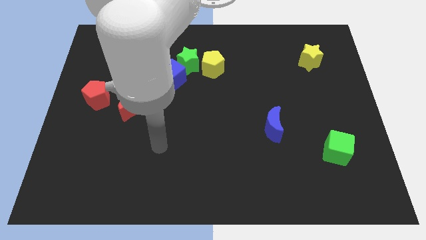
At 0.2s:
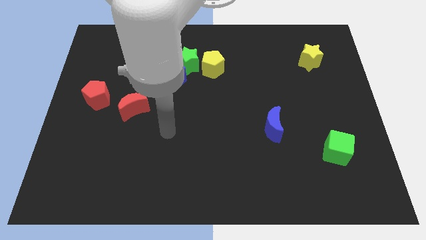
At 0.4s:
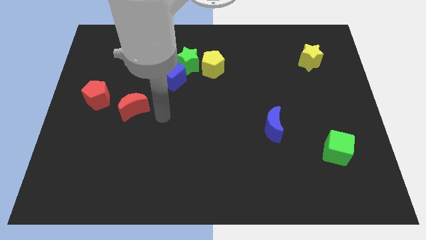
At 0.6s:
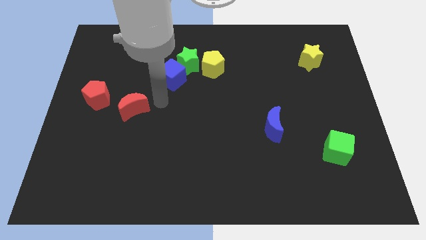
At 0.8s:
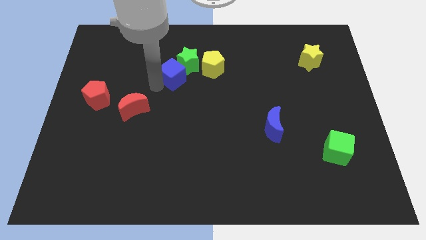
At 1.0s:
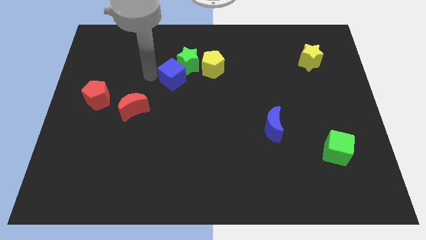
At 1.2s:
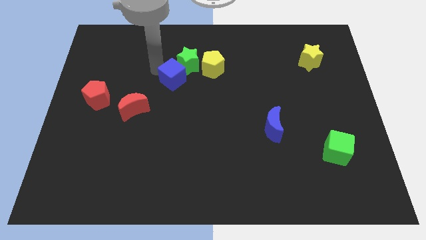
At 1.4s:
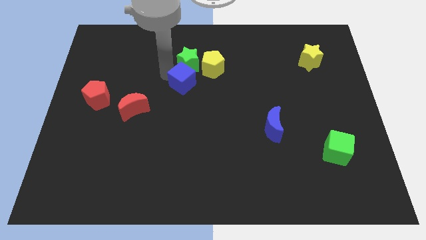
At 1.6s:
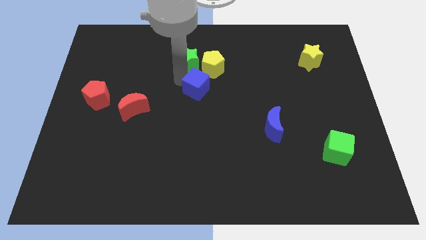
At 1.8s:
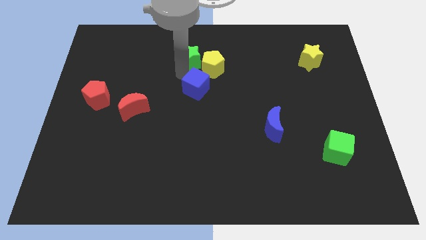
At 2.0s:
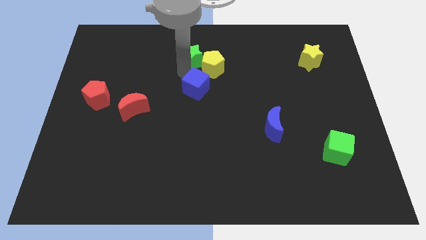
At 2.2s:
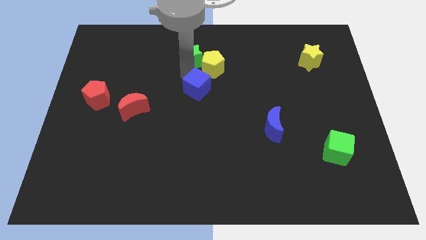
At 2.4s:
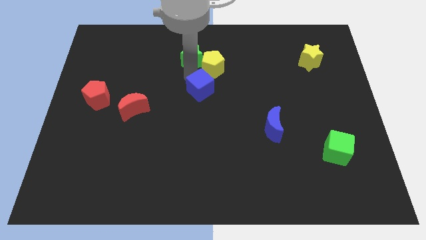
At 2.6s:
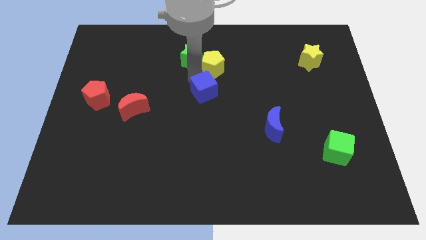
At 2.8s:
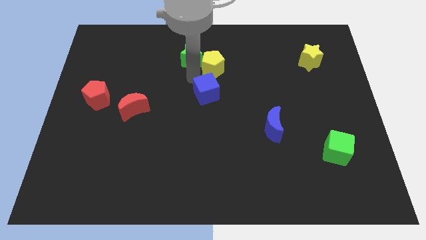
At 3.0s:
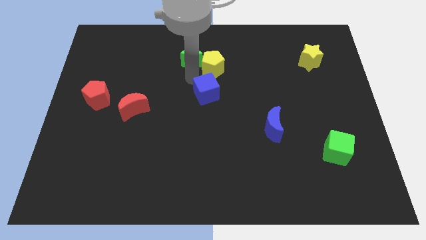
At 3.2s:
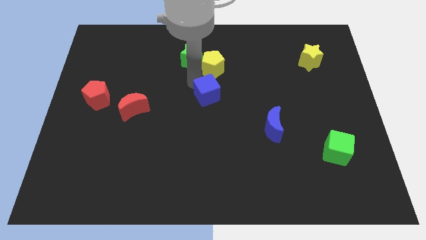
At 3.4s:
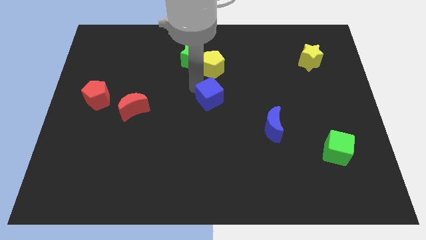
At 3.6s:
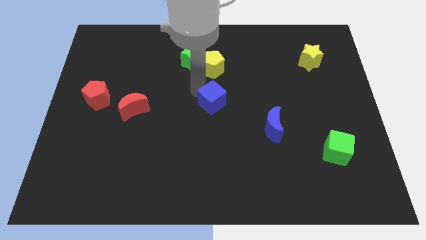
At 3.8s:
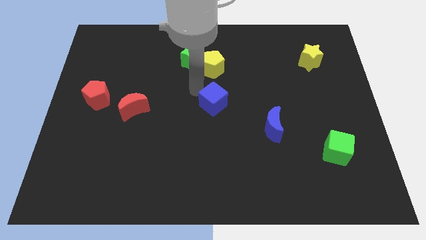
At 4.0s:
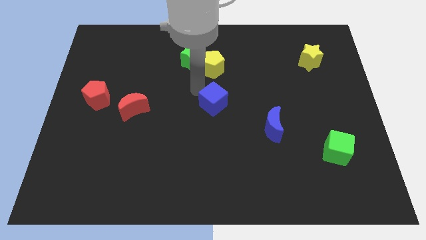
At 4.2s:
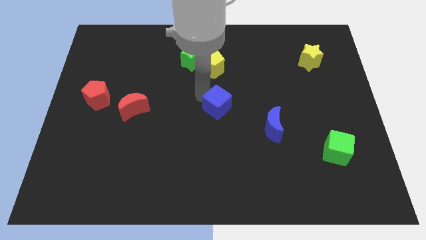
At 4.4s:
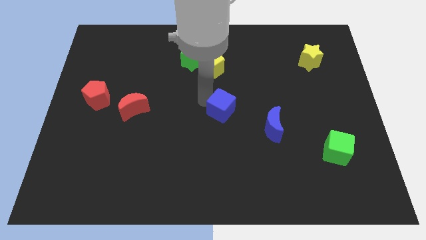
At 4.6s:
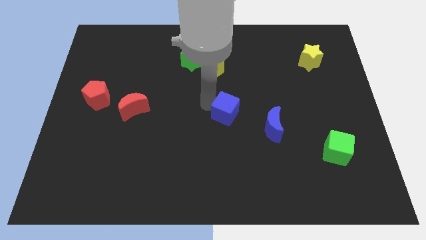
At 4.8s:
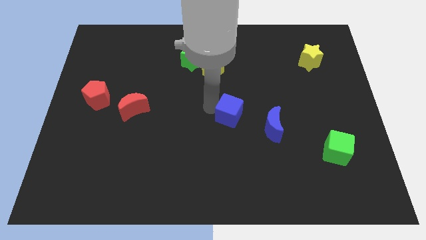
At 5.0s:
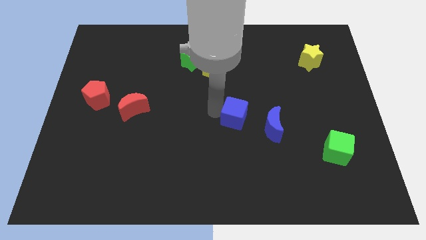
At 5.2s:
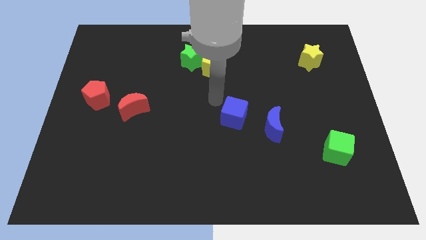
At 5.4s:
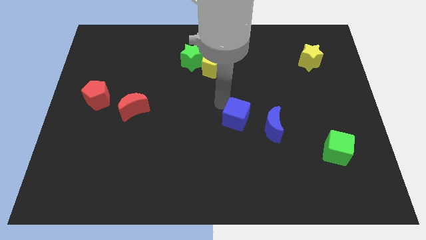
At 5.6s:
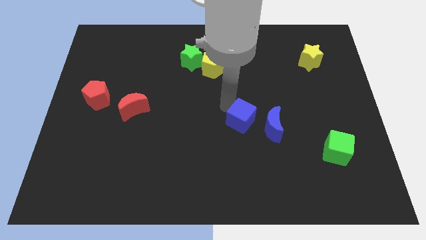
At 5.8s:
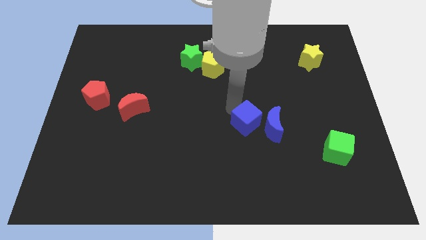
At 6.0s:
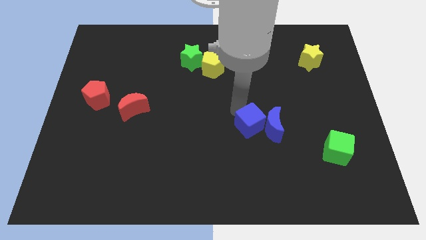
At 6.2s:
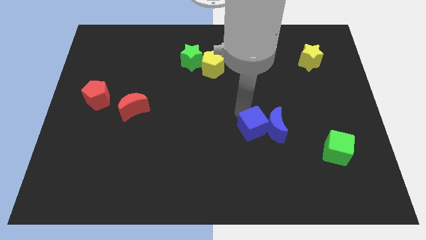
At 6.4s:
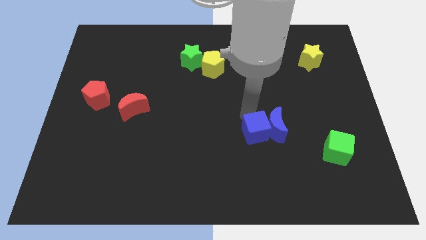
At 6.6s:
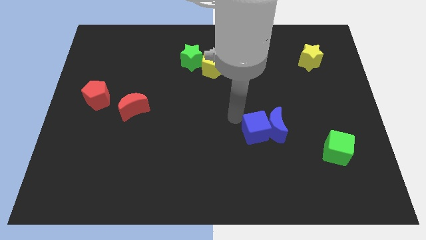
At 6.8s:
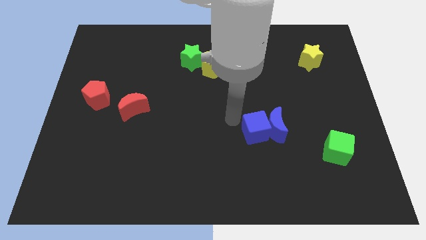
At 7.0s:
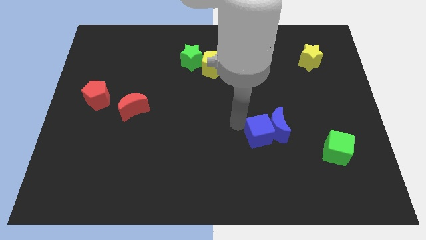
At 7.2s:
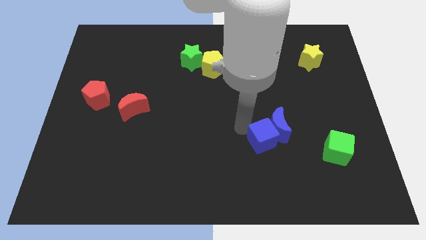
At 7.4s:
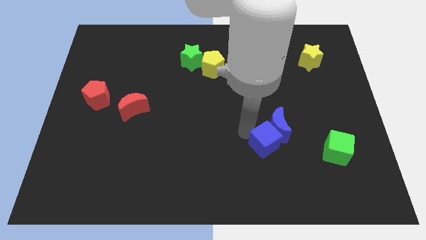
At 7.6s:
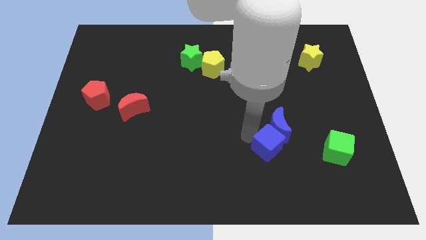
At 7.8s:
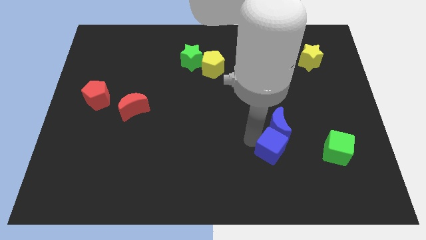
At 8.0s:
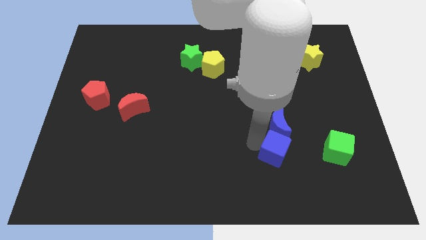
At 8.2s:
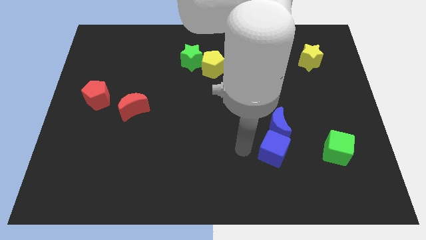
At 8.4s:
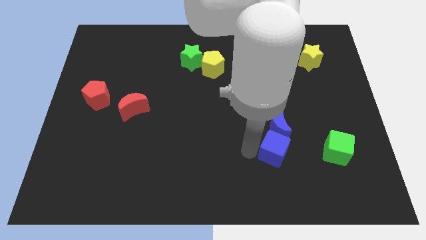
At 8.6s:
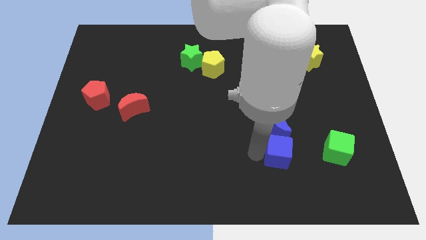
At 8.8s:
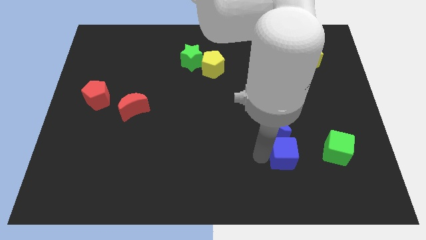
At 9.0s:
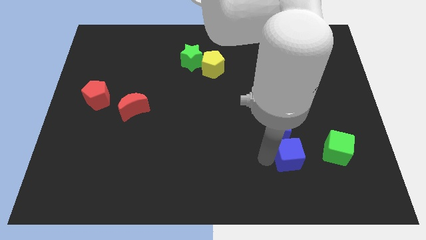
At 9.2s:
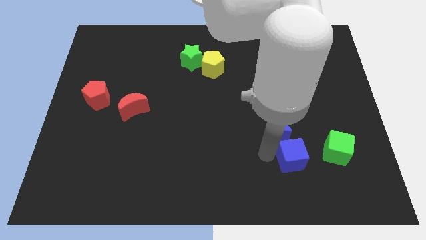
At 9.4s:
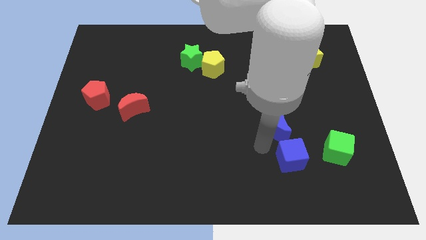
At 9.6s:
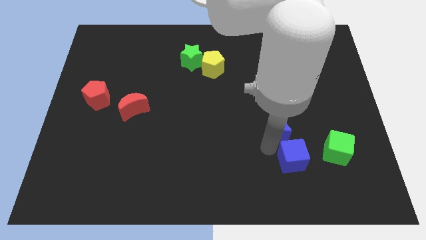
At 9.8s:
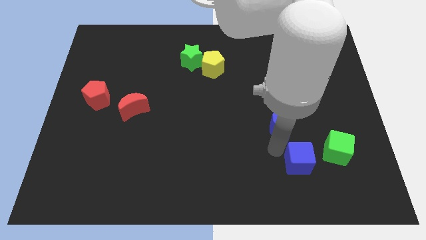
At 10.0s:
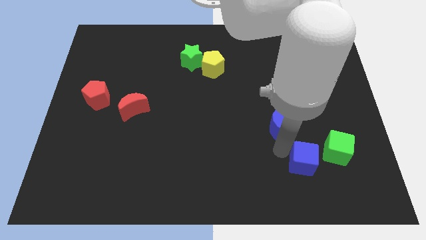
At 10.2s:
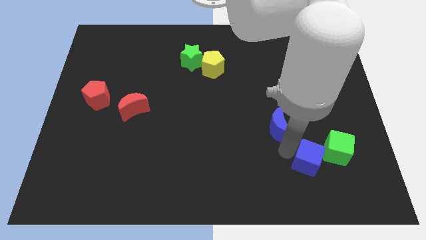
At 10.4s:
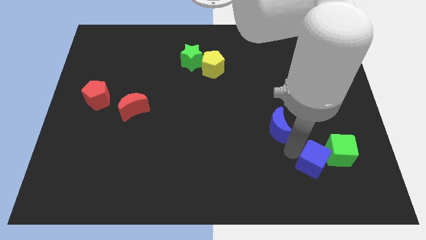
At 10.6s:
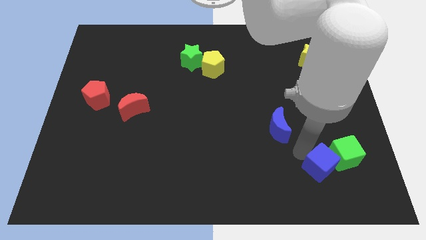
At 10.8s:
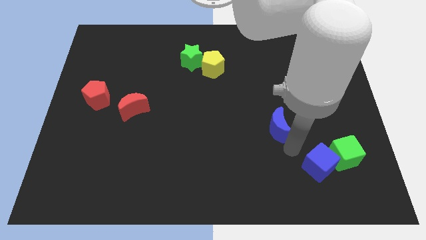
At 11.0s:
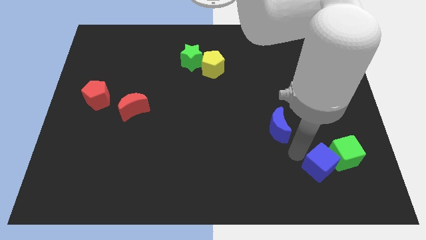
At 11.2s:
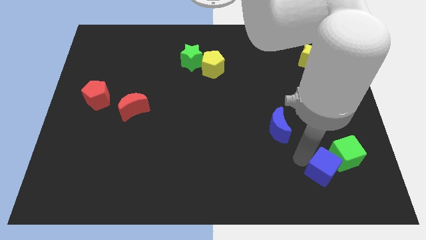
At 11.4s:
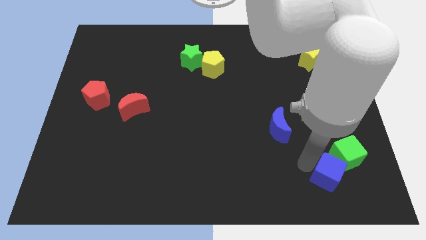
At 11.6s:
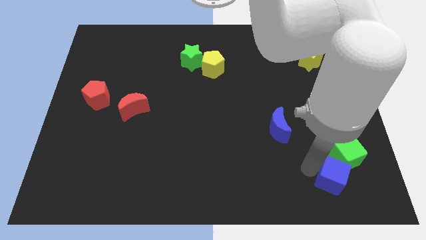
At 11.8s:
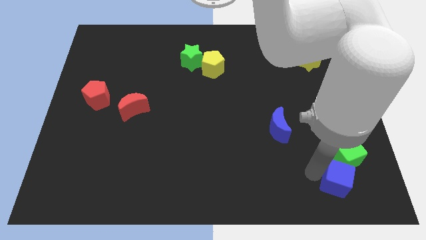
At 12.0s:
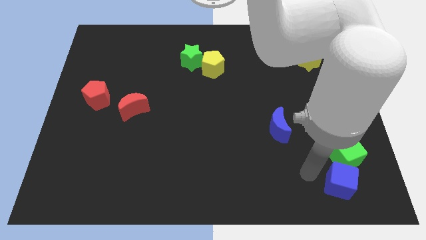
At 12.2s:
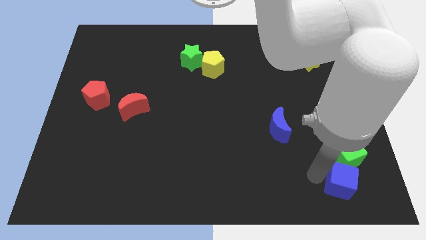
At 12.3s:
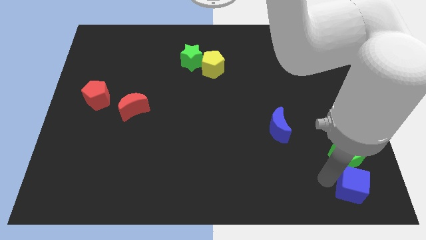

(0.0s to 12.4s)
move the blue cube to the bottom right

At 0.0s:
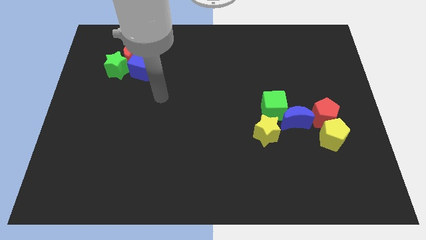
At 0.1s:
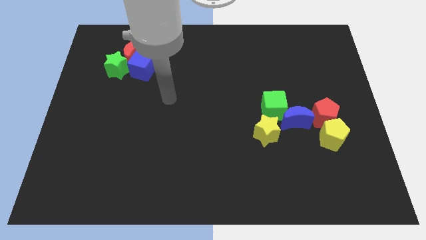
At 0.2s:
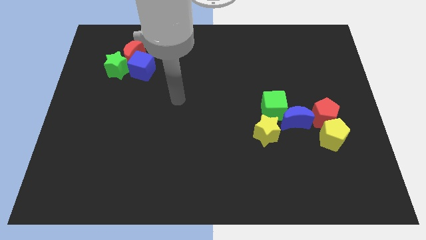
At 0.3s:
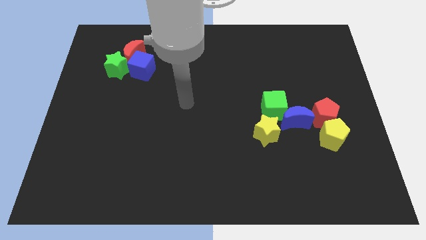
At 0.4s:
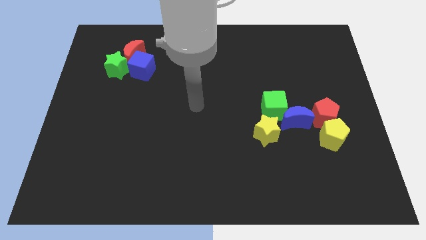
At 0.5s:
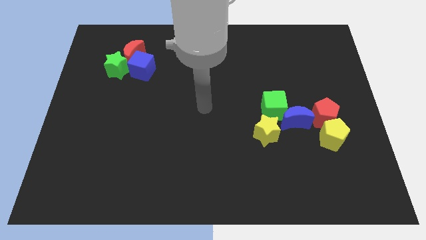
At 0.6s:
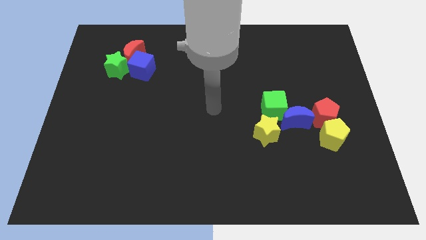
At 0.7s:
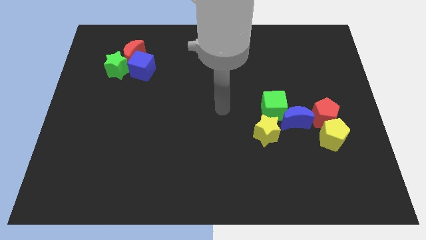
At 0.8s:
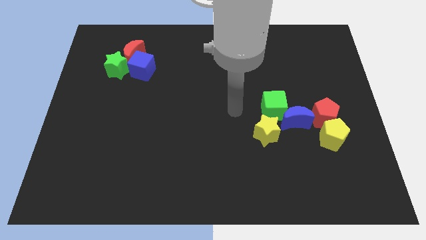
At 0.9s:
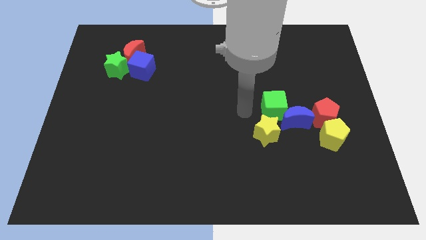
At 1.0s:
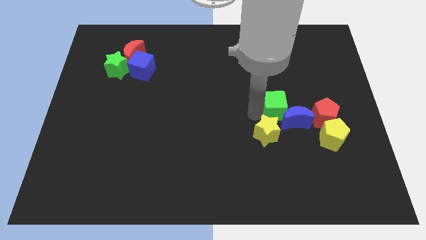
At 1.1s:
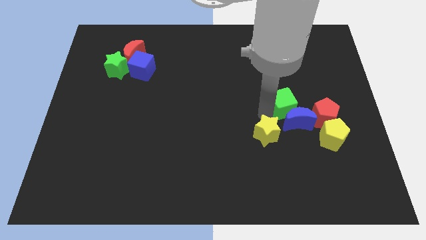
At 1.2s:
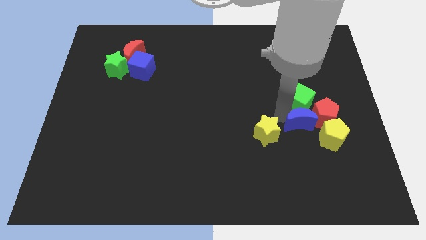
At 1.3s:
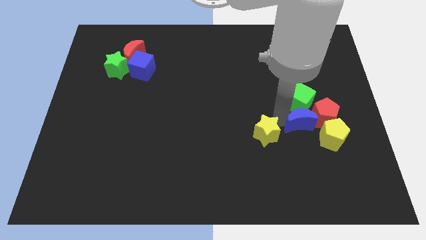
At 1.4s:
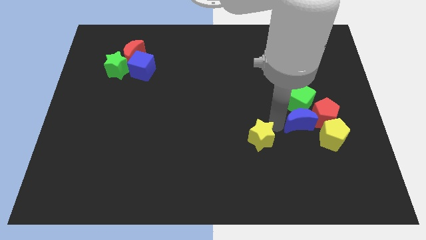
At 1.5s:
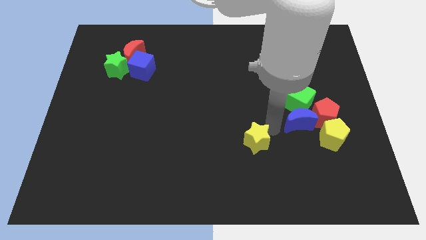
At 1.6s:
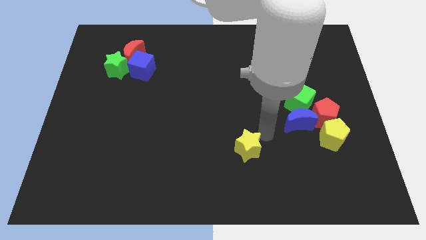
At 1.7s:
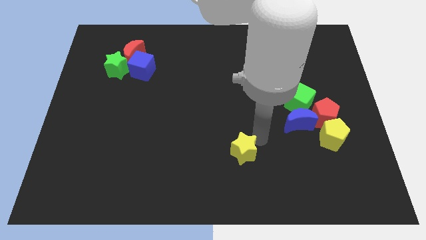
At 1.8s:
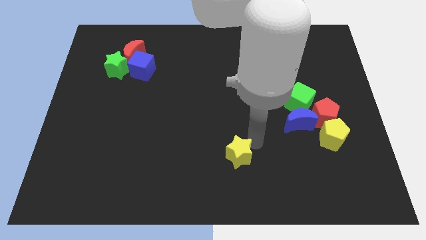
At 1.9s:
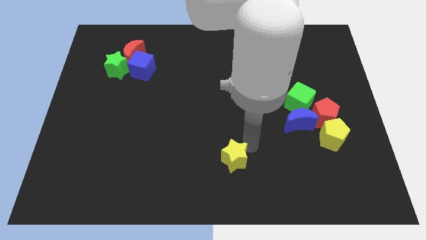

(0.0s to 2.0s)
move the yellow star to the bottom side

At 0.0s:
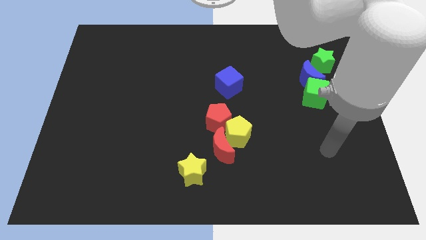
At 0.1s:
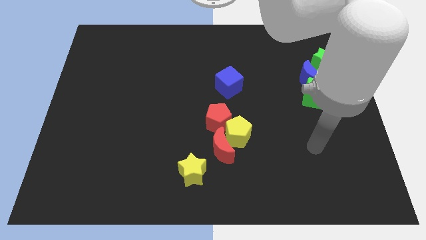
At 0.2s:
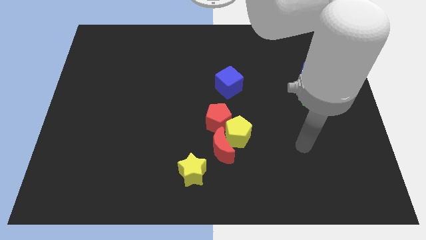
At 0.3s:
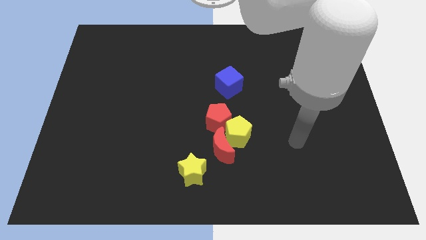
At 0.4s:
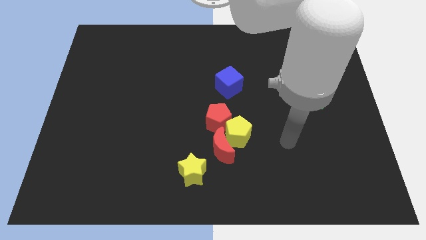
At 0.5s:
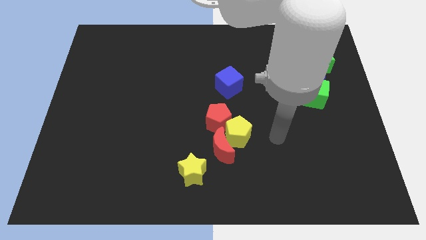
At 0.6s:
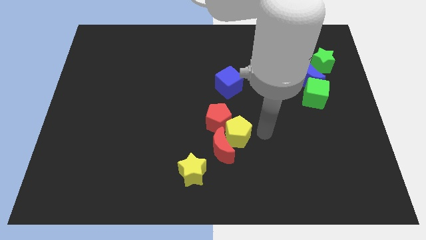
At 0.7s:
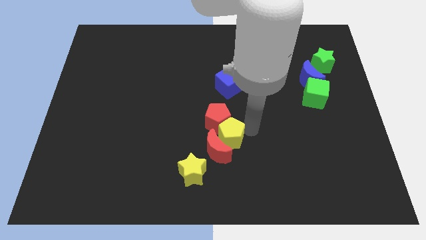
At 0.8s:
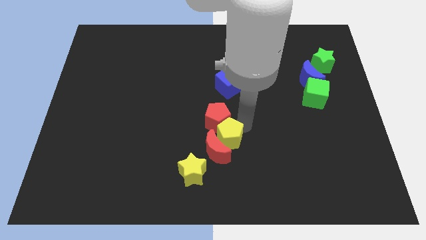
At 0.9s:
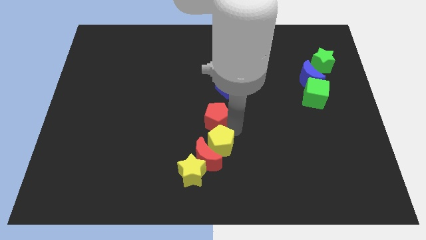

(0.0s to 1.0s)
put the red moon to the bottom side
